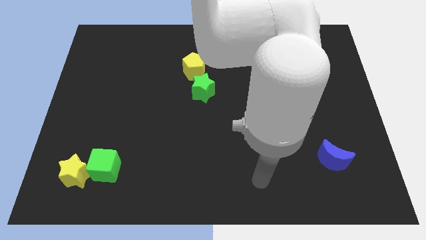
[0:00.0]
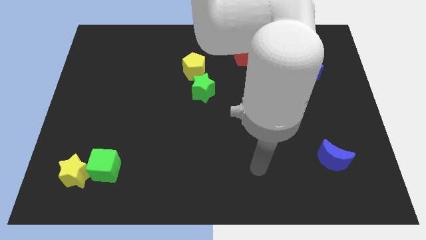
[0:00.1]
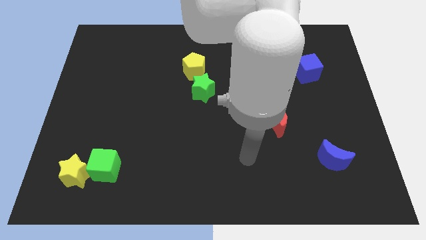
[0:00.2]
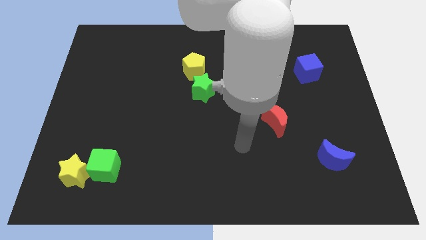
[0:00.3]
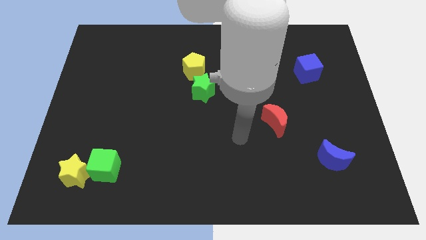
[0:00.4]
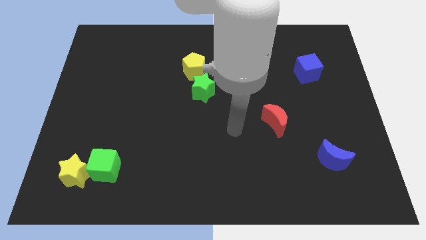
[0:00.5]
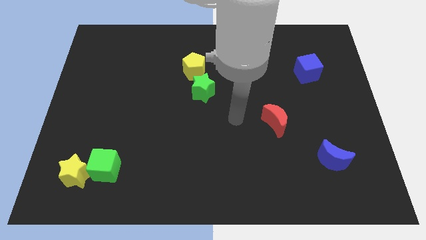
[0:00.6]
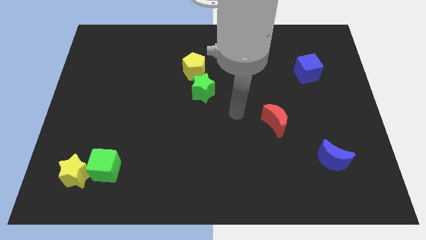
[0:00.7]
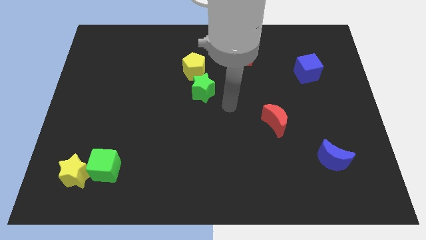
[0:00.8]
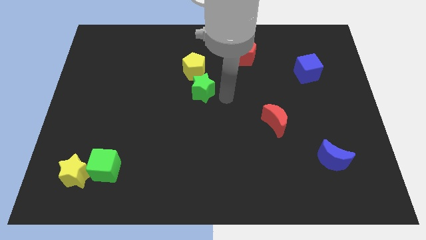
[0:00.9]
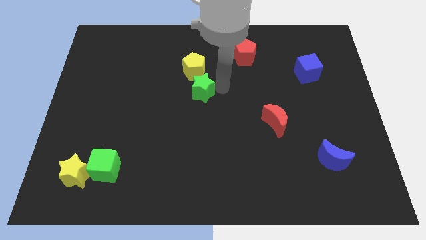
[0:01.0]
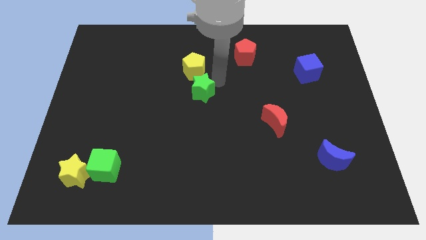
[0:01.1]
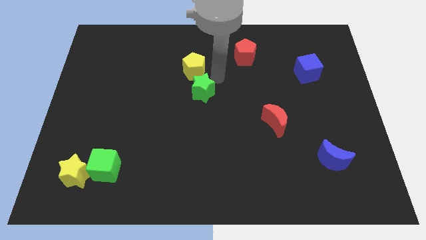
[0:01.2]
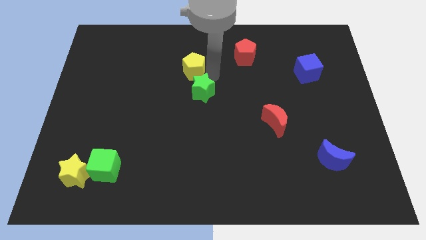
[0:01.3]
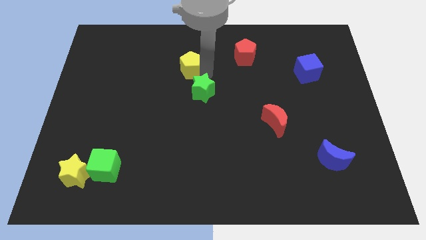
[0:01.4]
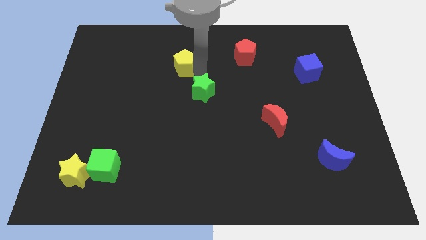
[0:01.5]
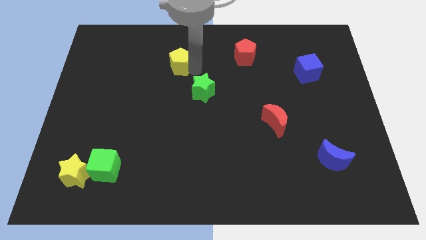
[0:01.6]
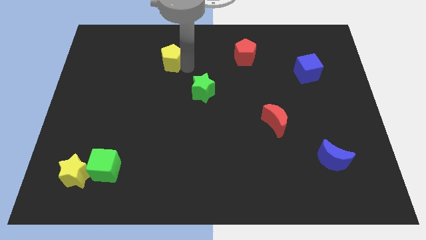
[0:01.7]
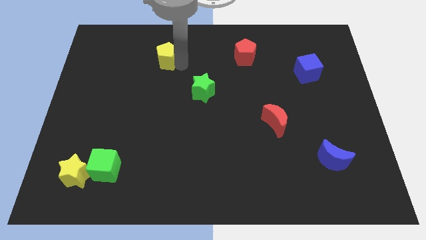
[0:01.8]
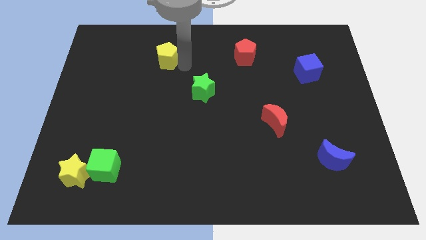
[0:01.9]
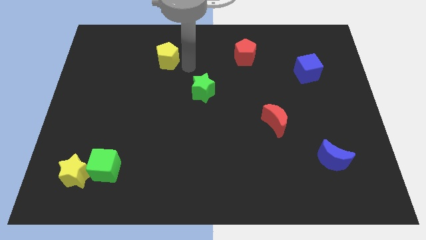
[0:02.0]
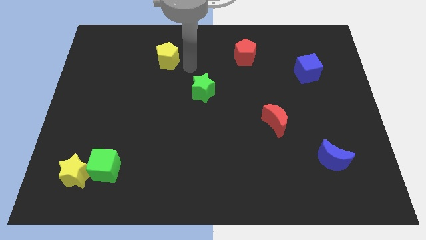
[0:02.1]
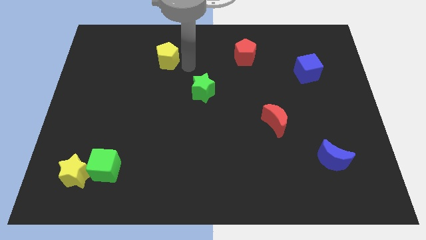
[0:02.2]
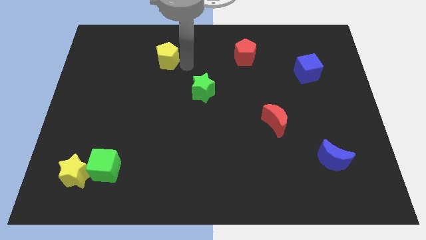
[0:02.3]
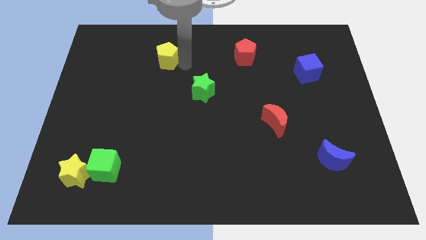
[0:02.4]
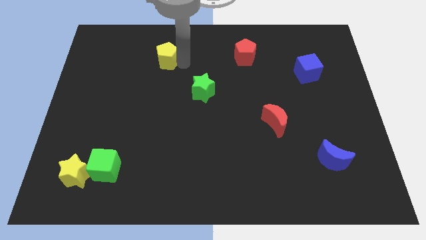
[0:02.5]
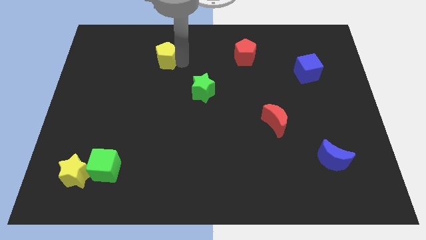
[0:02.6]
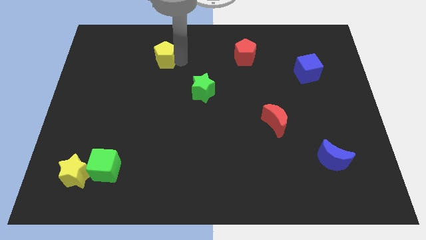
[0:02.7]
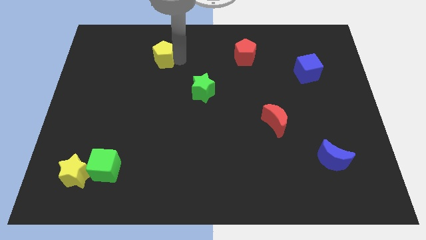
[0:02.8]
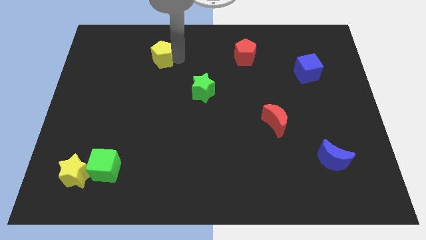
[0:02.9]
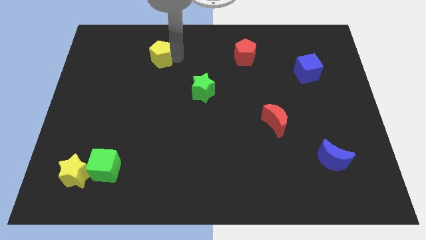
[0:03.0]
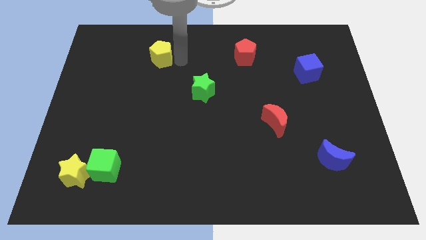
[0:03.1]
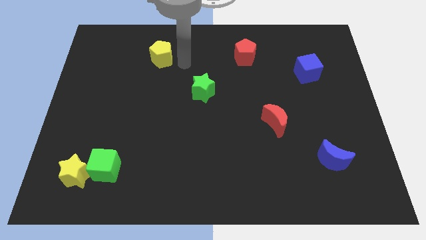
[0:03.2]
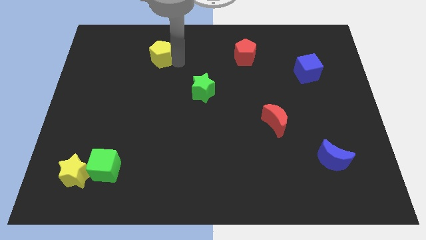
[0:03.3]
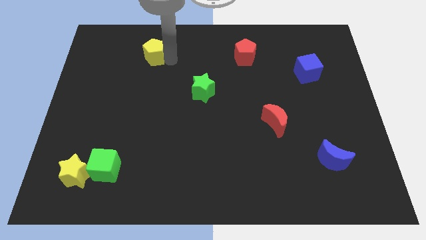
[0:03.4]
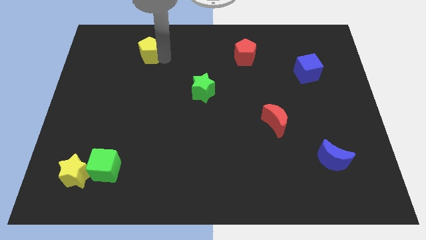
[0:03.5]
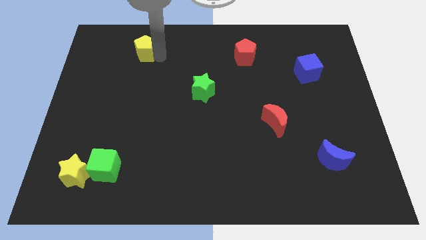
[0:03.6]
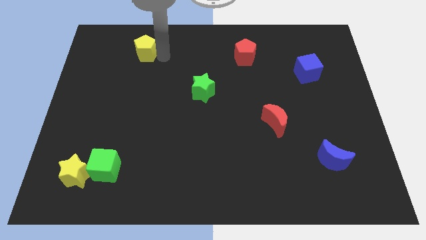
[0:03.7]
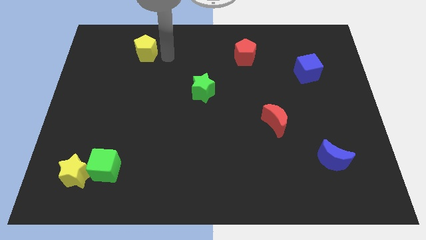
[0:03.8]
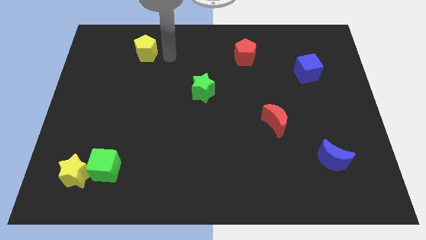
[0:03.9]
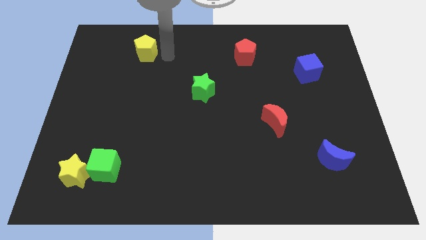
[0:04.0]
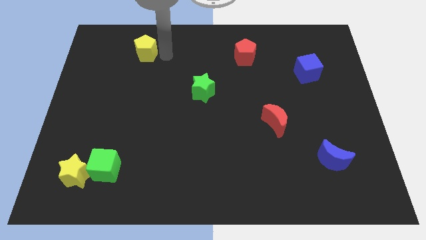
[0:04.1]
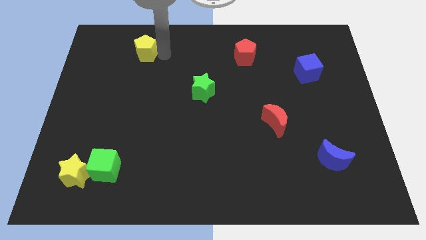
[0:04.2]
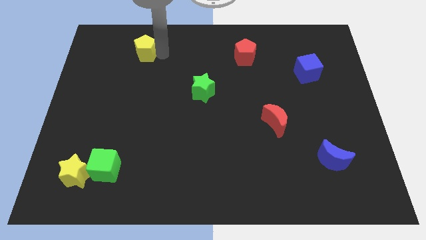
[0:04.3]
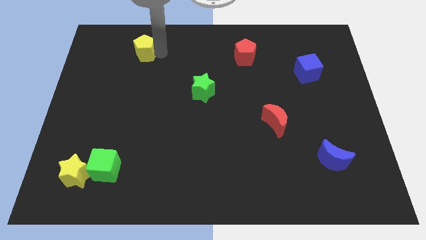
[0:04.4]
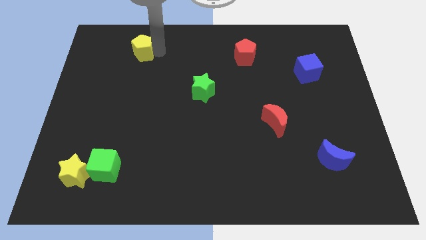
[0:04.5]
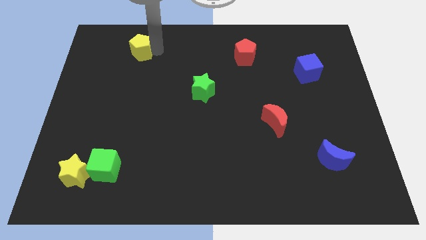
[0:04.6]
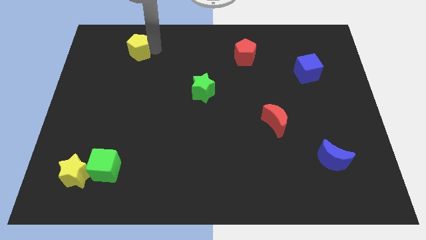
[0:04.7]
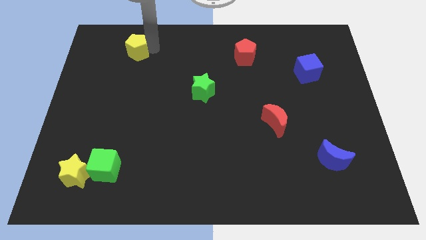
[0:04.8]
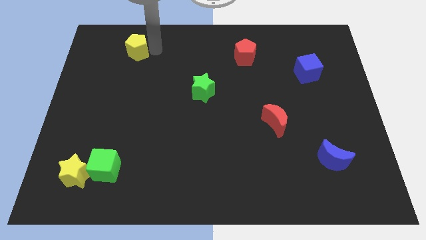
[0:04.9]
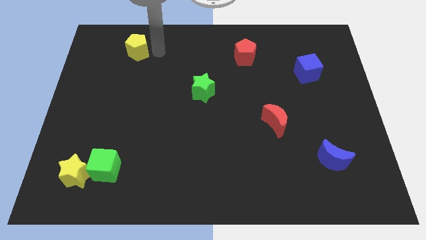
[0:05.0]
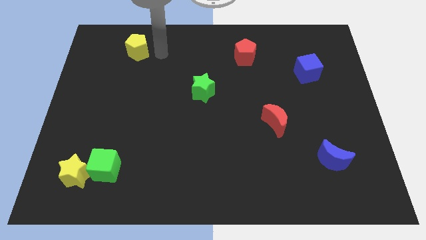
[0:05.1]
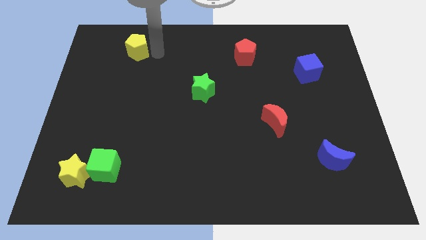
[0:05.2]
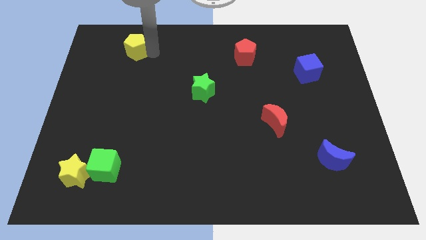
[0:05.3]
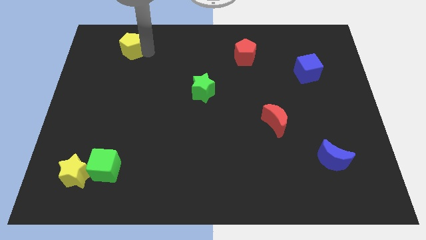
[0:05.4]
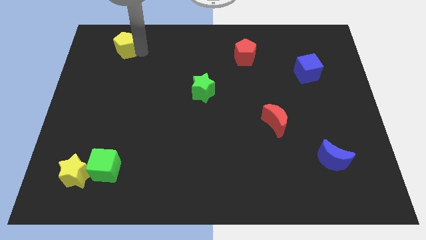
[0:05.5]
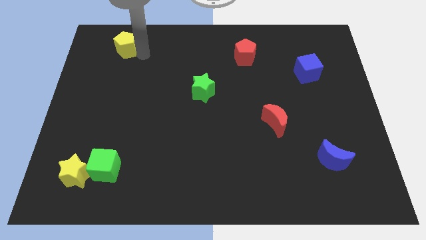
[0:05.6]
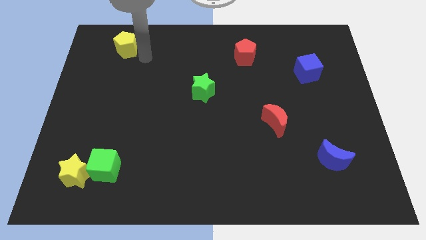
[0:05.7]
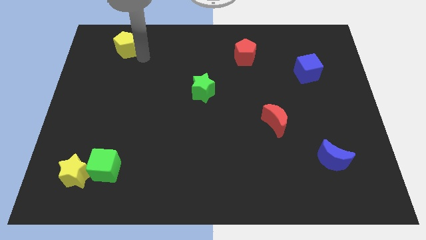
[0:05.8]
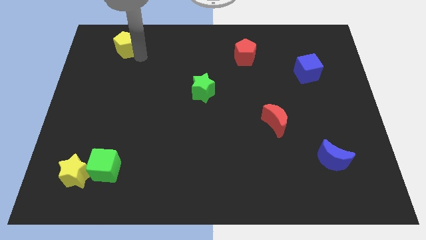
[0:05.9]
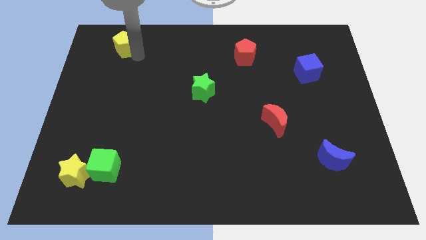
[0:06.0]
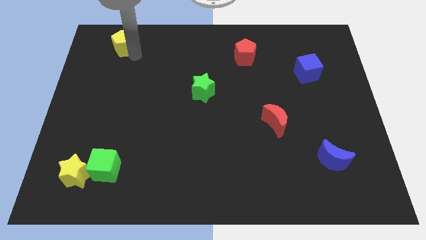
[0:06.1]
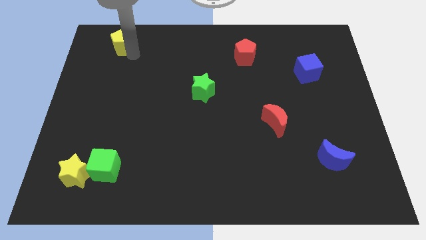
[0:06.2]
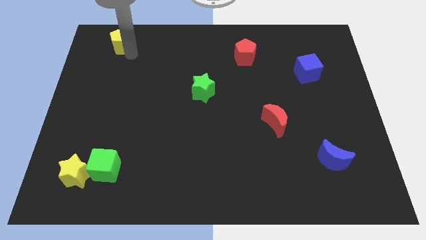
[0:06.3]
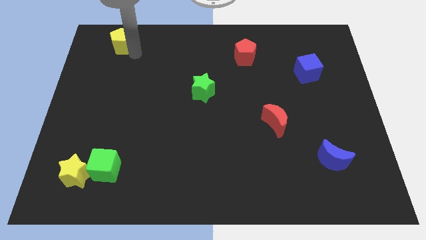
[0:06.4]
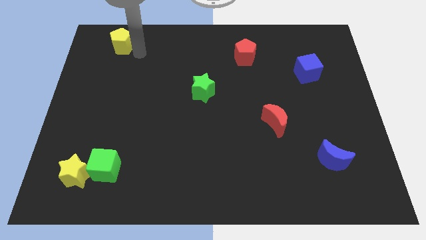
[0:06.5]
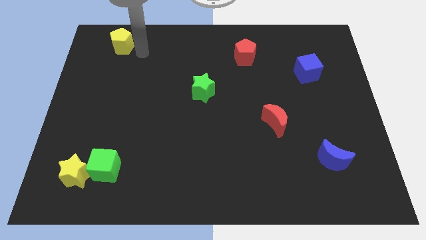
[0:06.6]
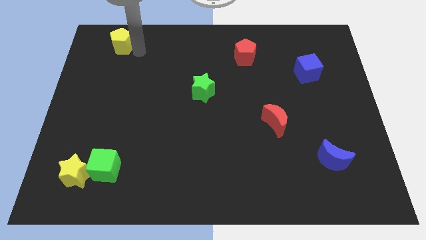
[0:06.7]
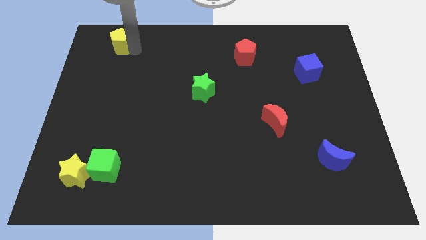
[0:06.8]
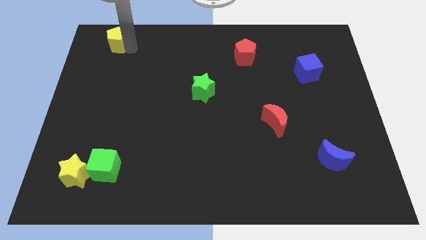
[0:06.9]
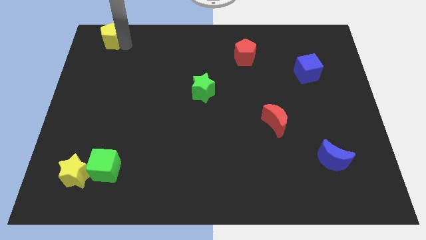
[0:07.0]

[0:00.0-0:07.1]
push the yellow pentagon to the upper left corner
